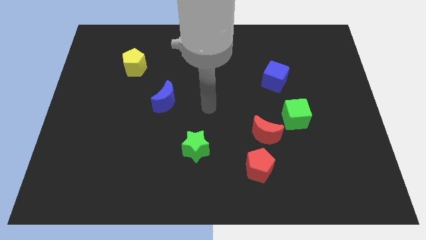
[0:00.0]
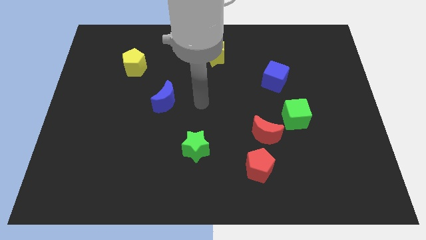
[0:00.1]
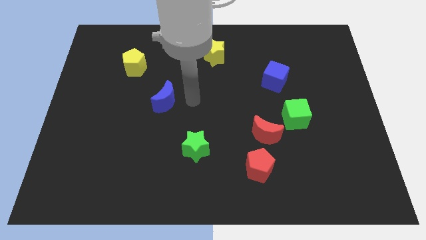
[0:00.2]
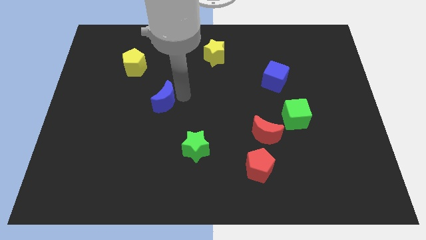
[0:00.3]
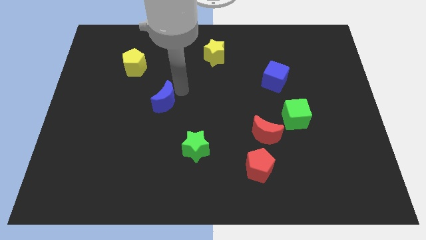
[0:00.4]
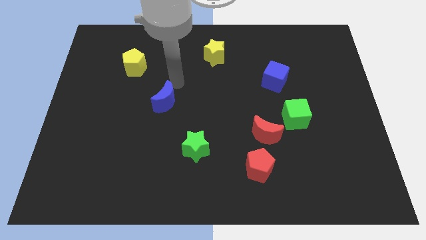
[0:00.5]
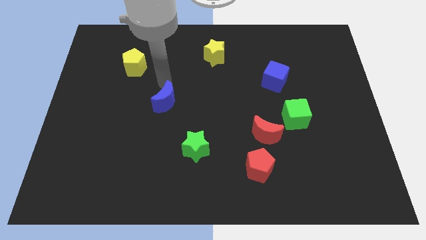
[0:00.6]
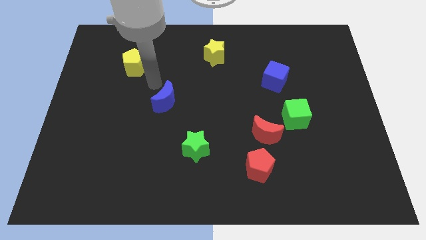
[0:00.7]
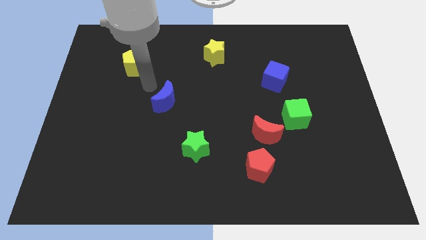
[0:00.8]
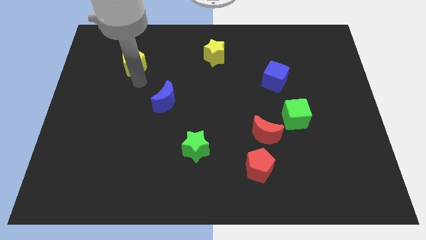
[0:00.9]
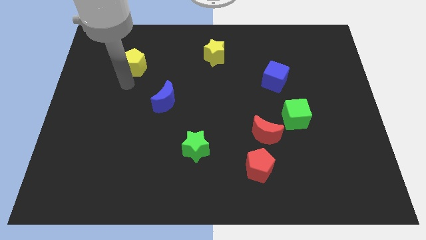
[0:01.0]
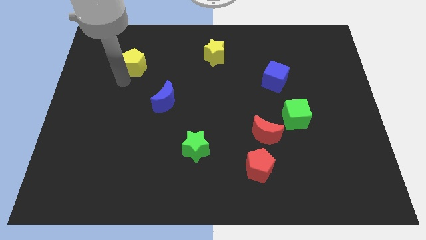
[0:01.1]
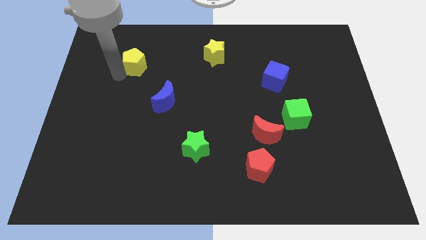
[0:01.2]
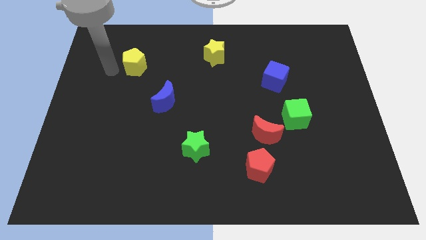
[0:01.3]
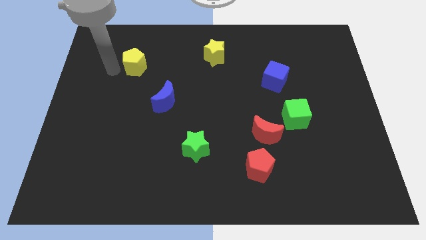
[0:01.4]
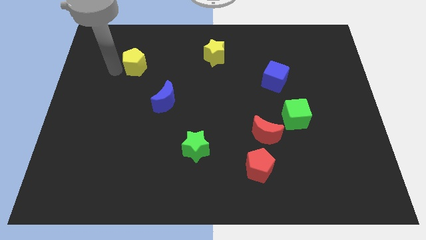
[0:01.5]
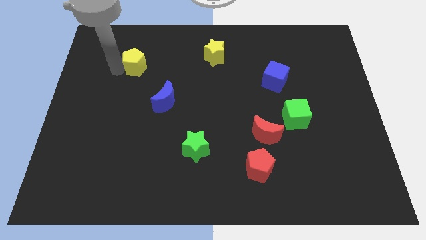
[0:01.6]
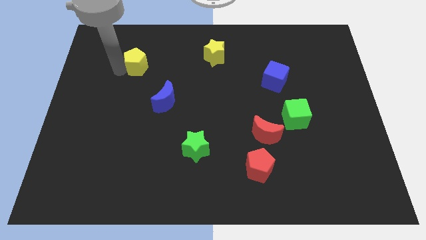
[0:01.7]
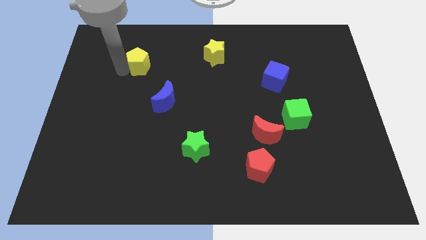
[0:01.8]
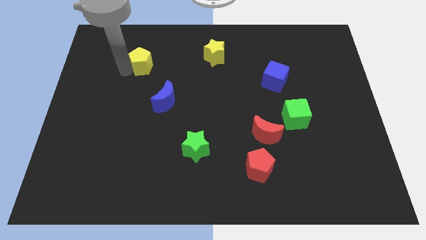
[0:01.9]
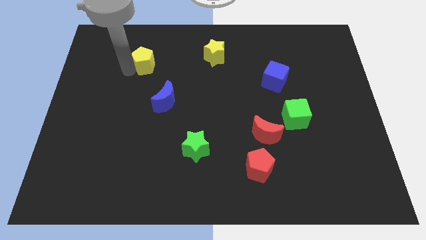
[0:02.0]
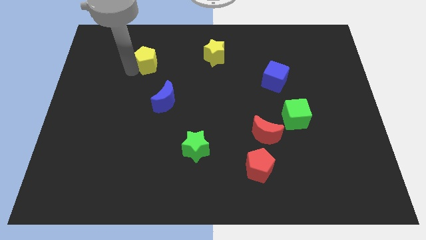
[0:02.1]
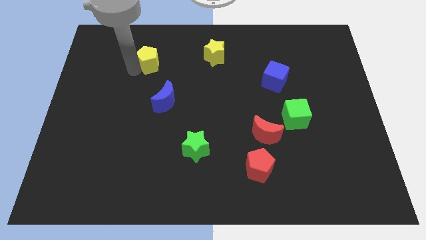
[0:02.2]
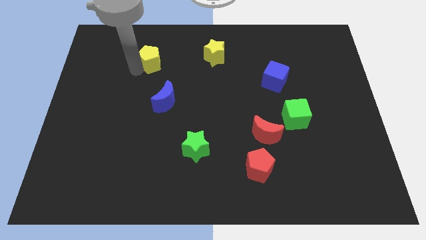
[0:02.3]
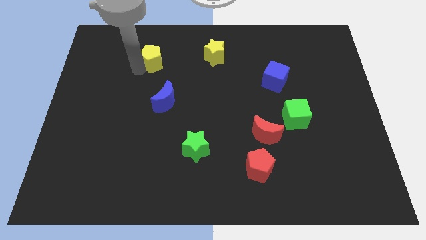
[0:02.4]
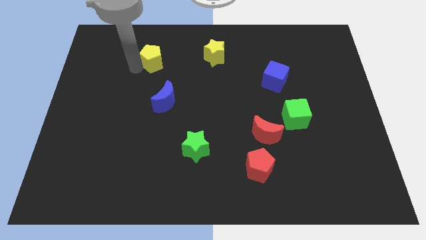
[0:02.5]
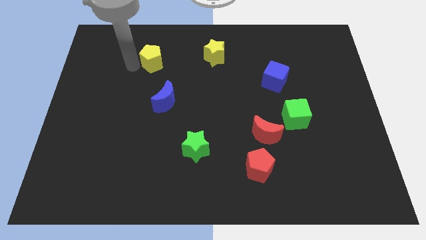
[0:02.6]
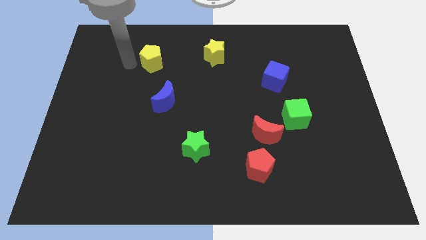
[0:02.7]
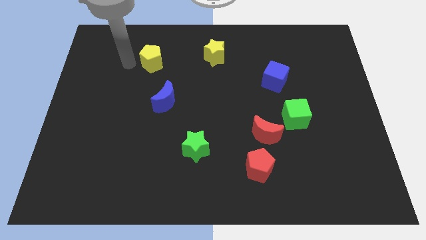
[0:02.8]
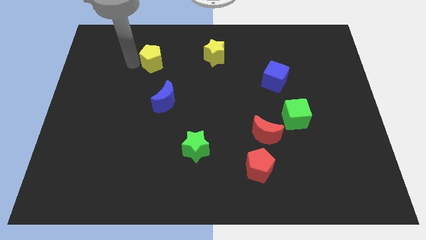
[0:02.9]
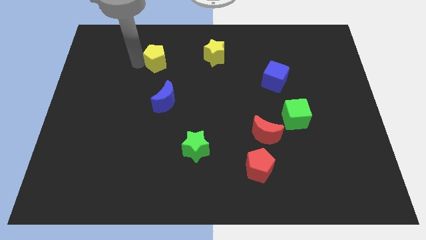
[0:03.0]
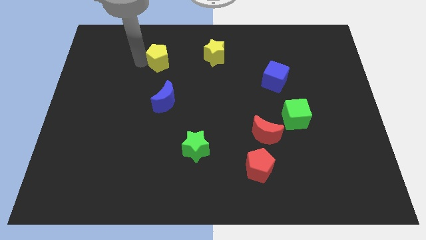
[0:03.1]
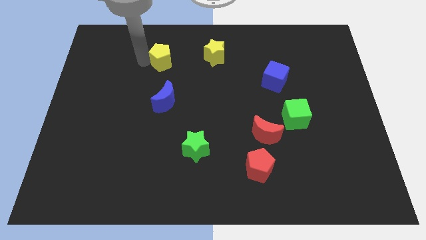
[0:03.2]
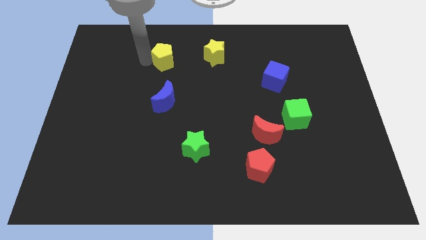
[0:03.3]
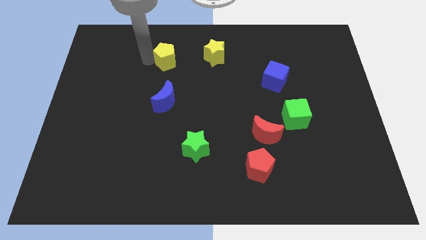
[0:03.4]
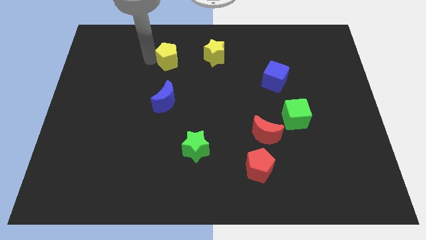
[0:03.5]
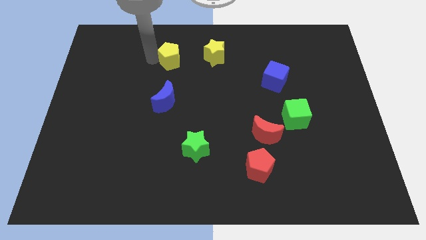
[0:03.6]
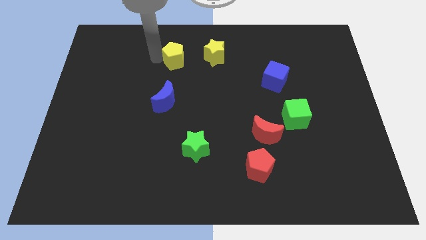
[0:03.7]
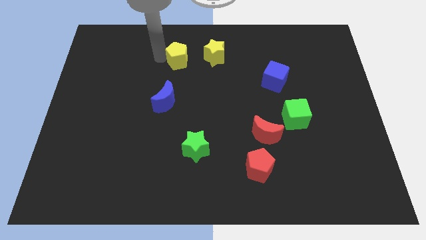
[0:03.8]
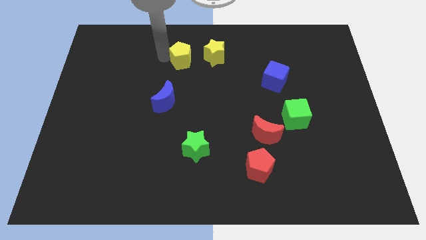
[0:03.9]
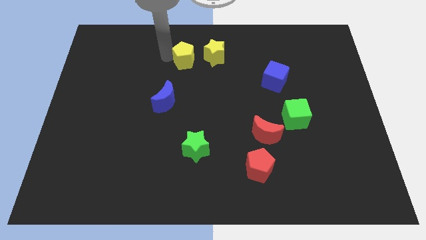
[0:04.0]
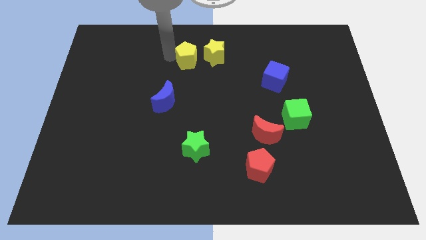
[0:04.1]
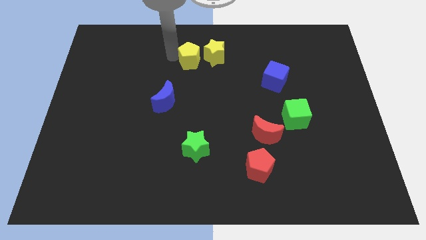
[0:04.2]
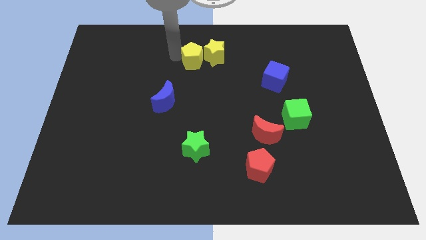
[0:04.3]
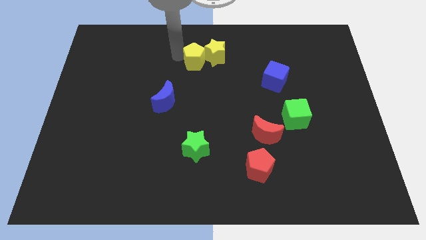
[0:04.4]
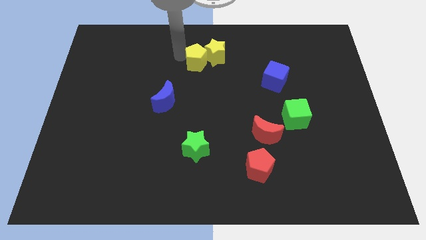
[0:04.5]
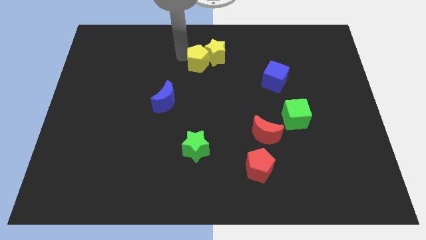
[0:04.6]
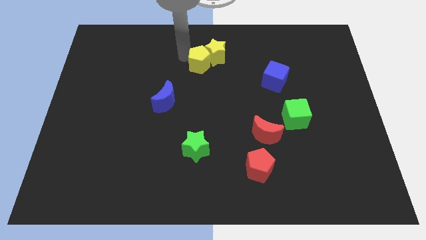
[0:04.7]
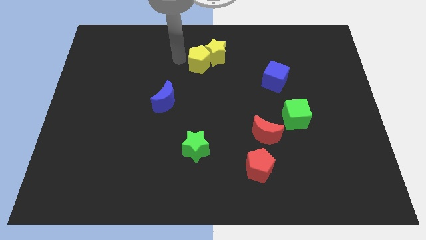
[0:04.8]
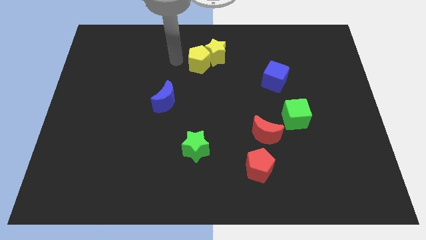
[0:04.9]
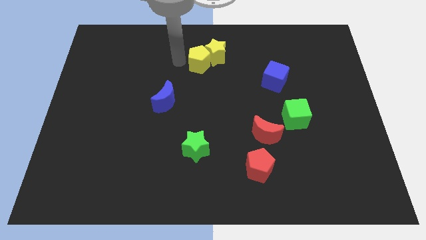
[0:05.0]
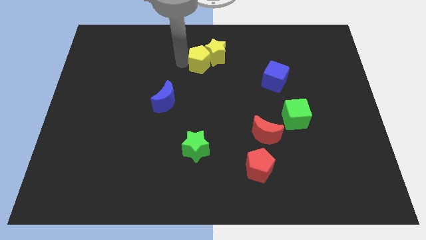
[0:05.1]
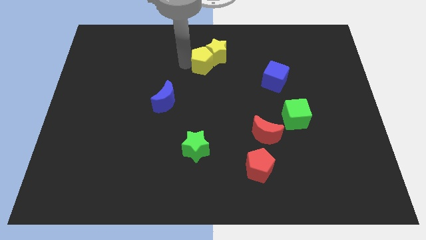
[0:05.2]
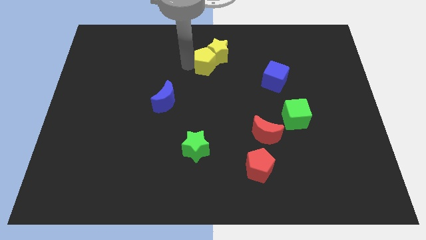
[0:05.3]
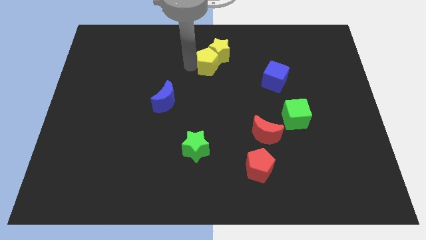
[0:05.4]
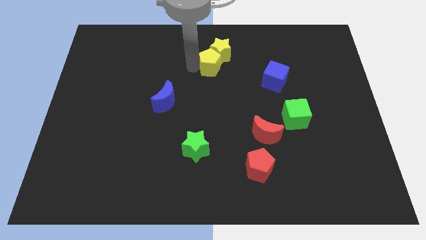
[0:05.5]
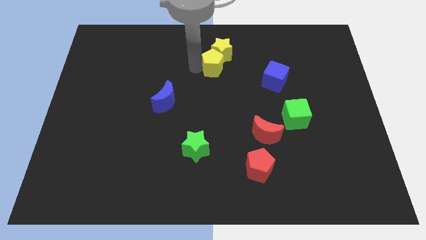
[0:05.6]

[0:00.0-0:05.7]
move the yellow pentagon right

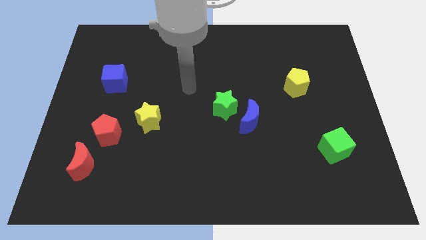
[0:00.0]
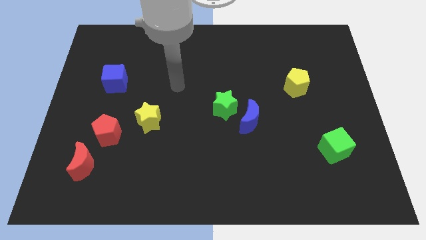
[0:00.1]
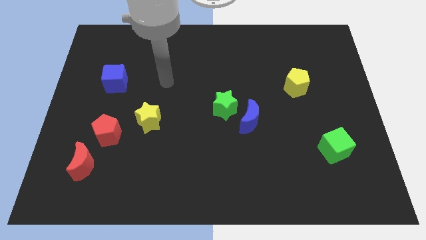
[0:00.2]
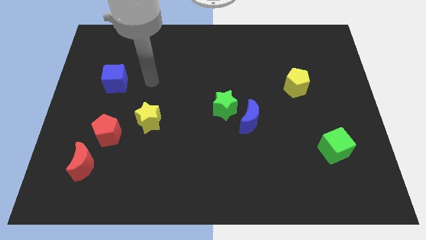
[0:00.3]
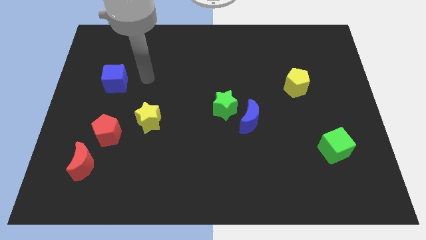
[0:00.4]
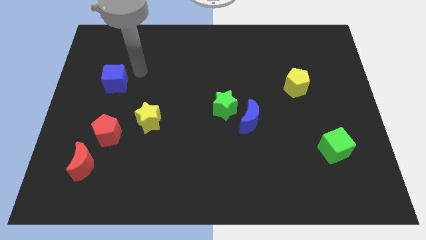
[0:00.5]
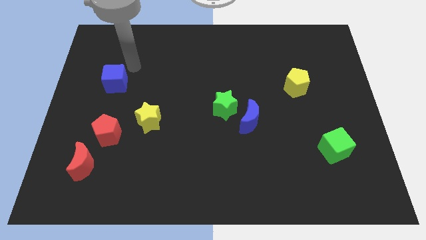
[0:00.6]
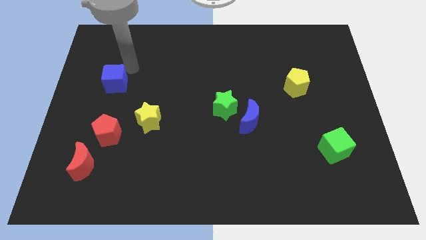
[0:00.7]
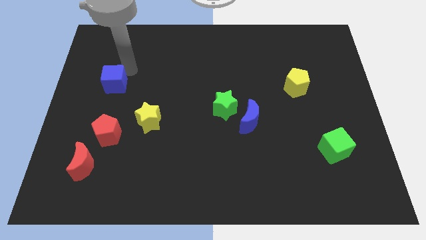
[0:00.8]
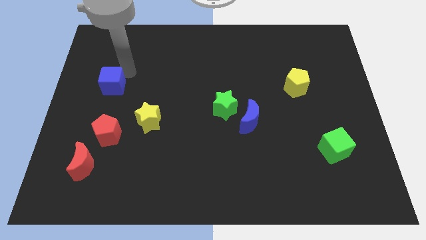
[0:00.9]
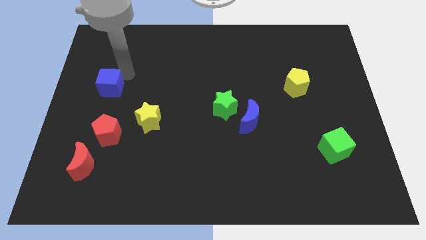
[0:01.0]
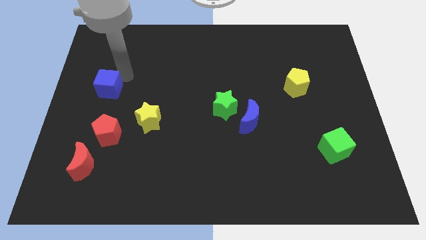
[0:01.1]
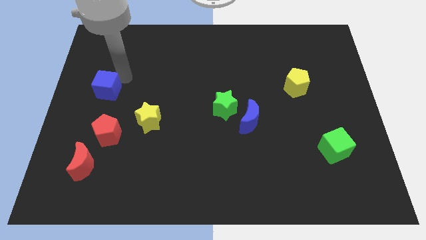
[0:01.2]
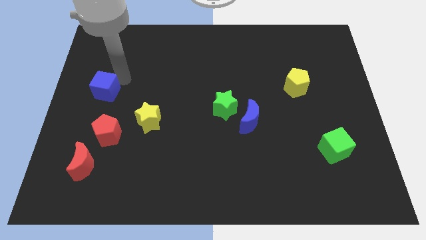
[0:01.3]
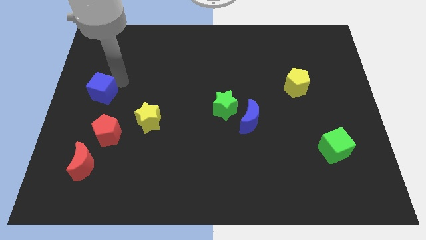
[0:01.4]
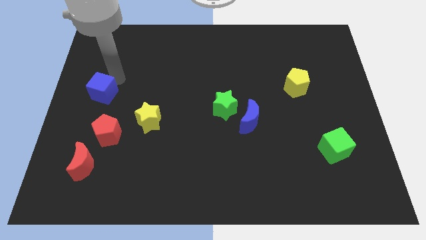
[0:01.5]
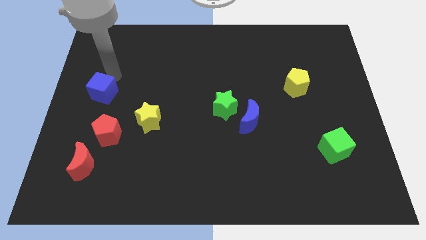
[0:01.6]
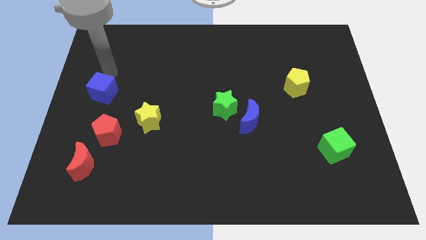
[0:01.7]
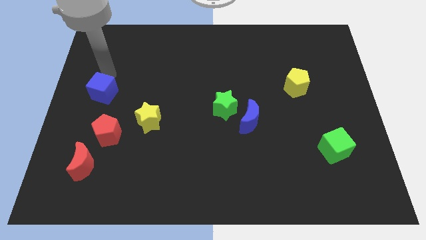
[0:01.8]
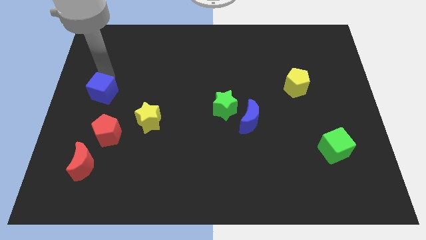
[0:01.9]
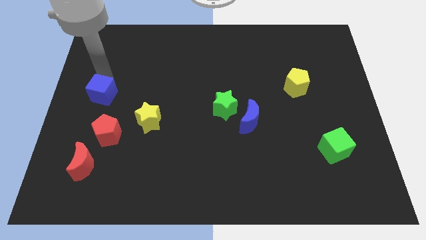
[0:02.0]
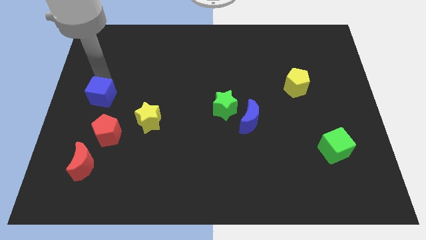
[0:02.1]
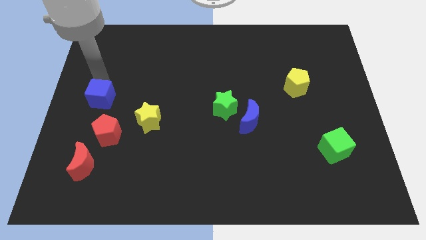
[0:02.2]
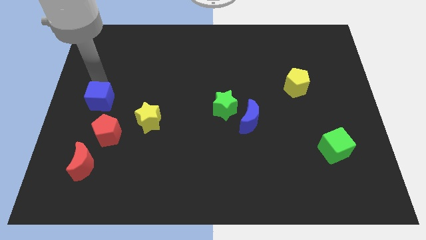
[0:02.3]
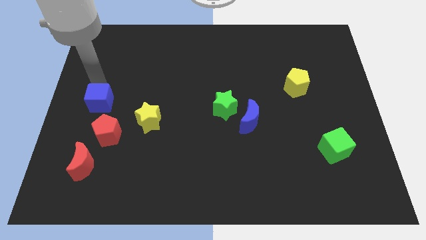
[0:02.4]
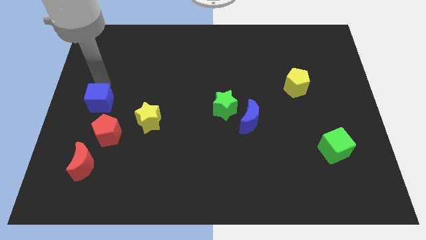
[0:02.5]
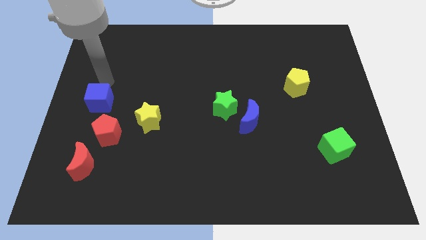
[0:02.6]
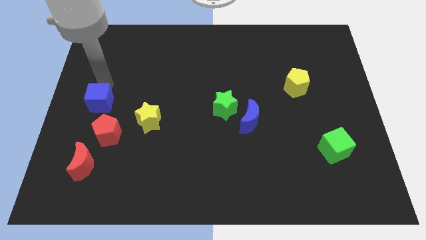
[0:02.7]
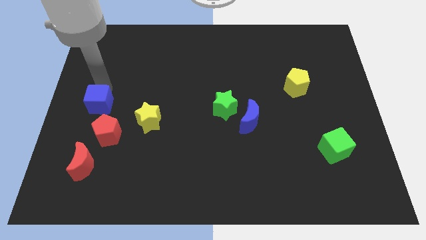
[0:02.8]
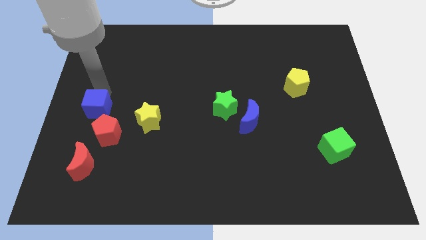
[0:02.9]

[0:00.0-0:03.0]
slightly push the blue cube down
